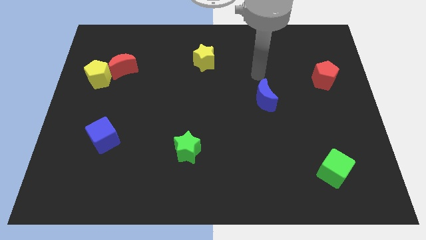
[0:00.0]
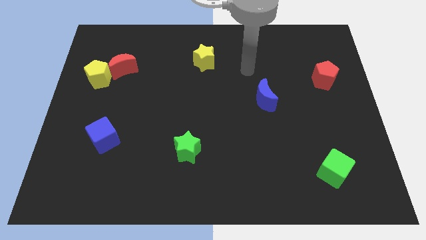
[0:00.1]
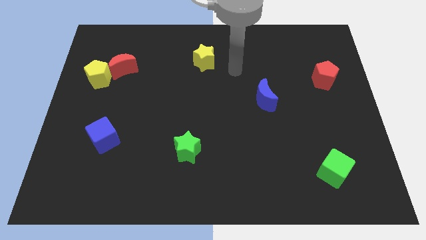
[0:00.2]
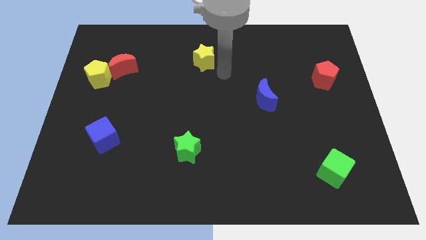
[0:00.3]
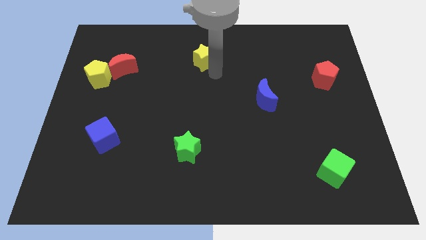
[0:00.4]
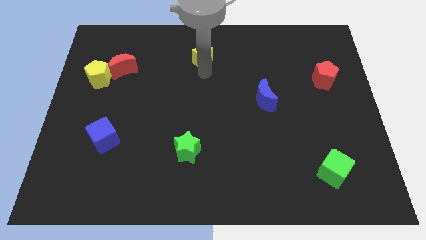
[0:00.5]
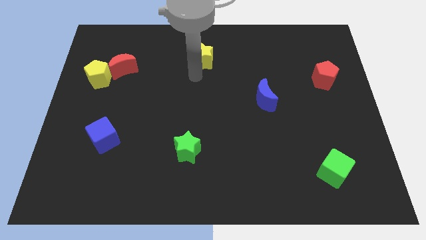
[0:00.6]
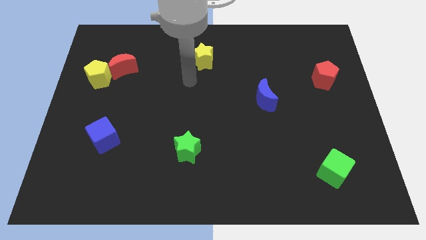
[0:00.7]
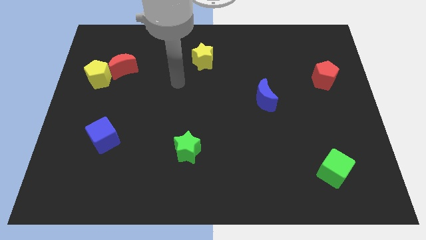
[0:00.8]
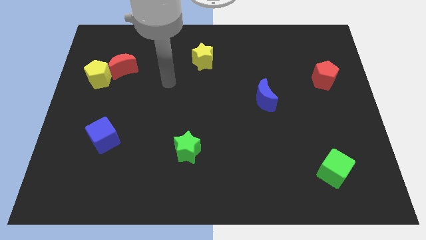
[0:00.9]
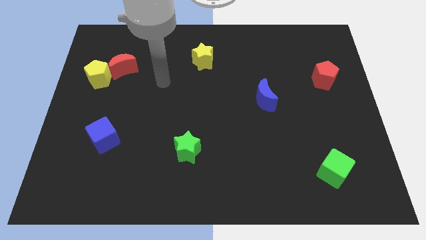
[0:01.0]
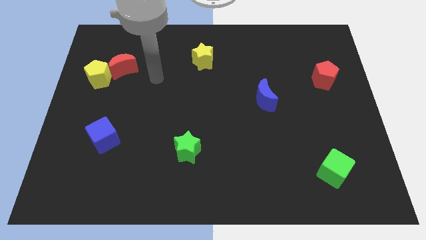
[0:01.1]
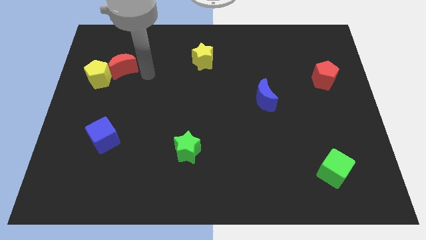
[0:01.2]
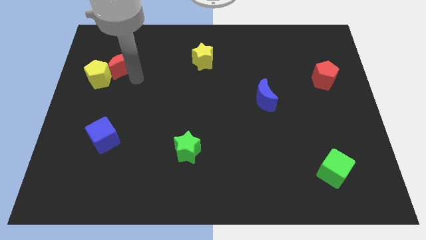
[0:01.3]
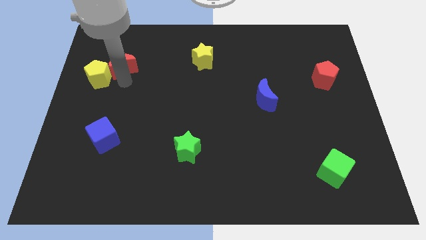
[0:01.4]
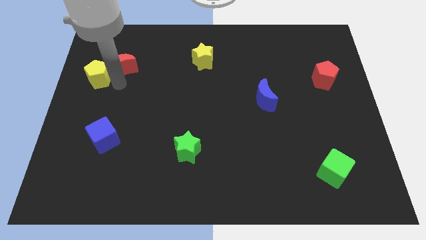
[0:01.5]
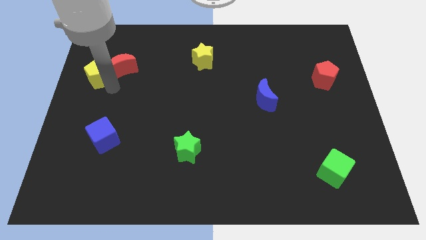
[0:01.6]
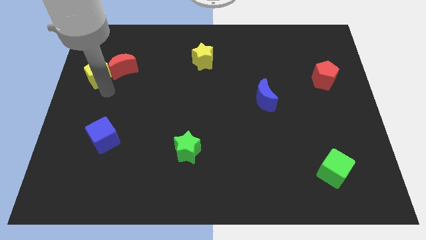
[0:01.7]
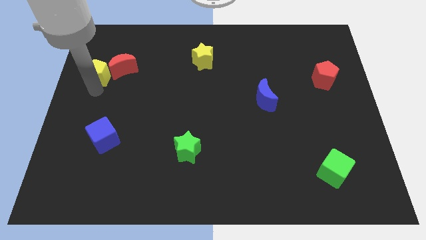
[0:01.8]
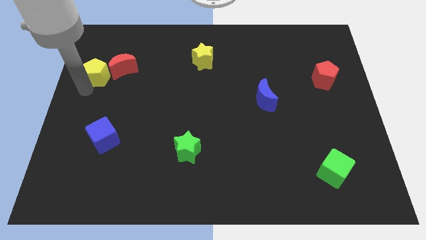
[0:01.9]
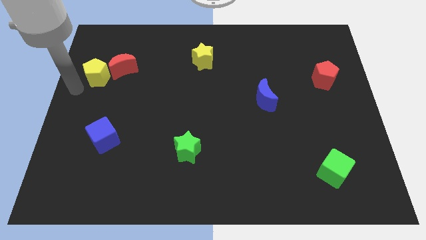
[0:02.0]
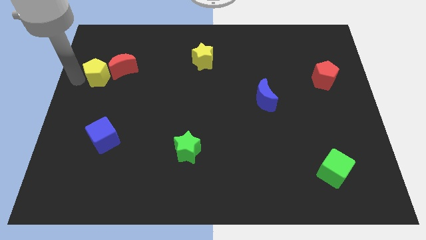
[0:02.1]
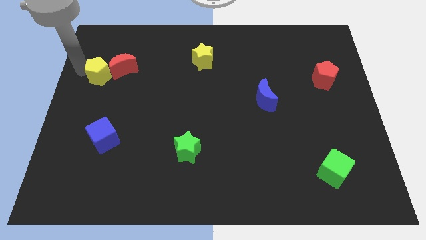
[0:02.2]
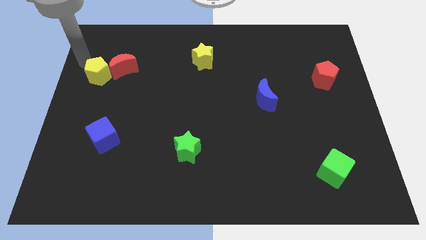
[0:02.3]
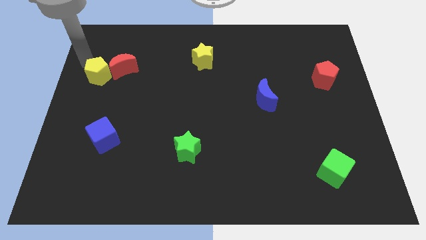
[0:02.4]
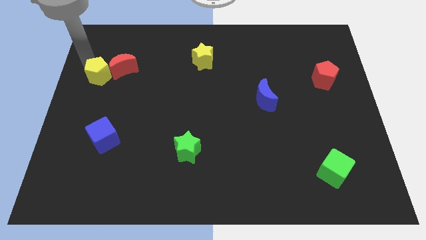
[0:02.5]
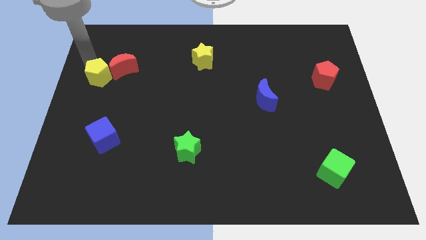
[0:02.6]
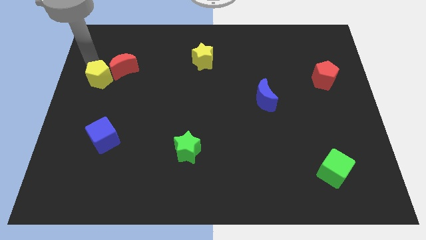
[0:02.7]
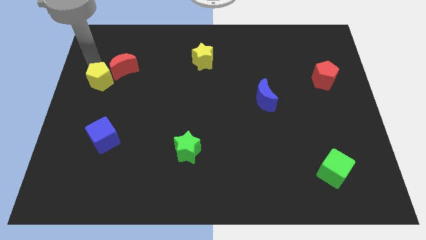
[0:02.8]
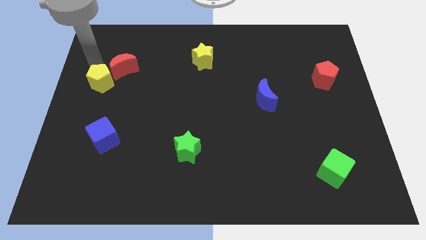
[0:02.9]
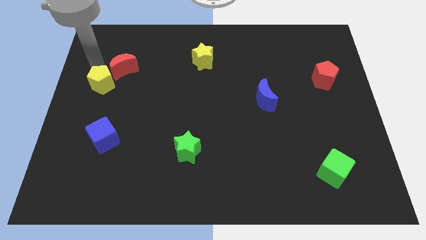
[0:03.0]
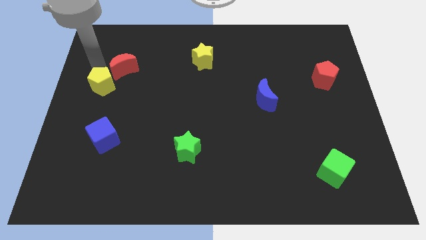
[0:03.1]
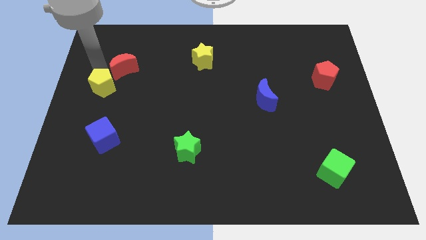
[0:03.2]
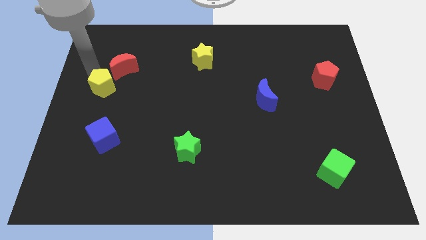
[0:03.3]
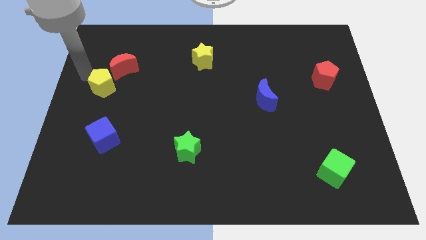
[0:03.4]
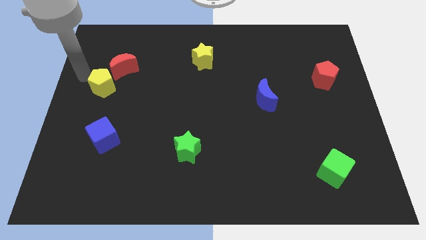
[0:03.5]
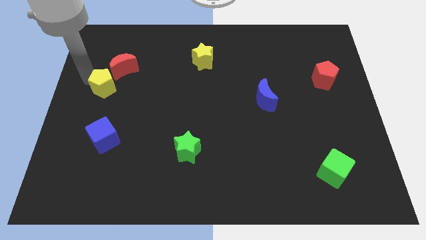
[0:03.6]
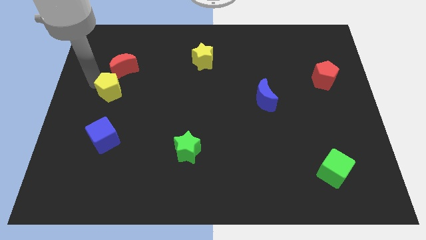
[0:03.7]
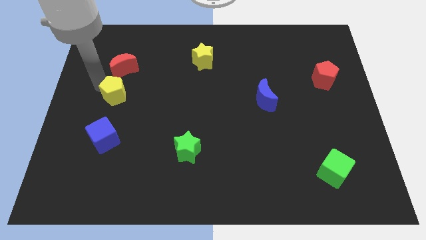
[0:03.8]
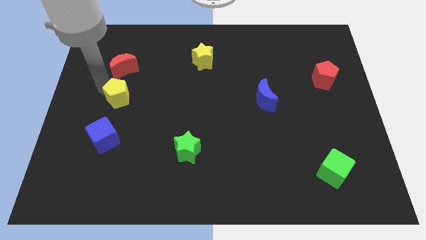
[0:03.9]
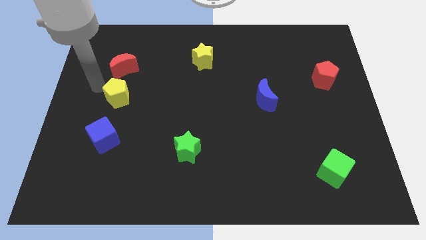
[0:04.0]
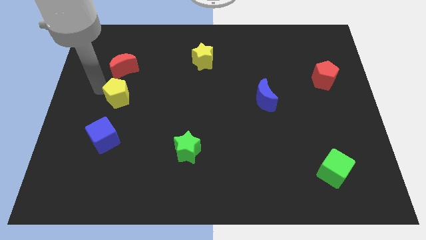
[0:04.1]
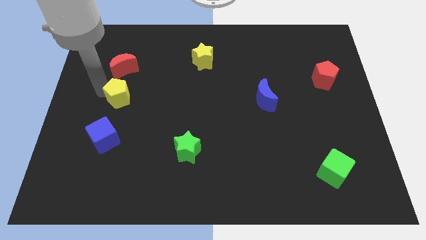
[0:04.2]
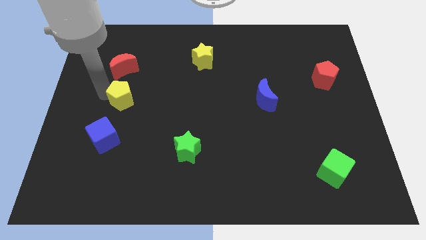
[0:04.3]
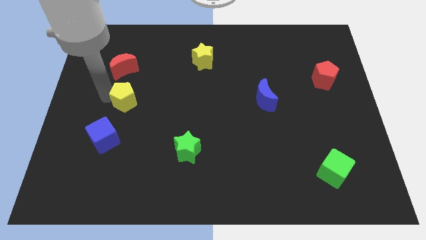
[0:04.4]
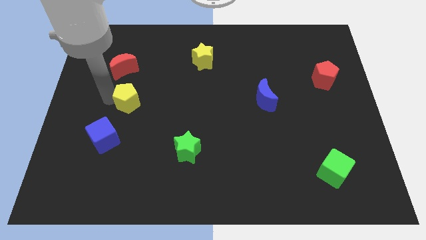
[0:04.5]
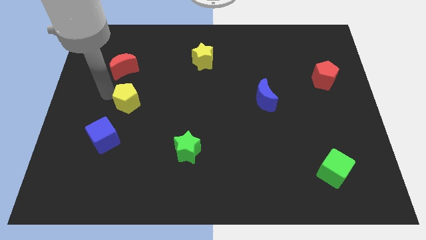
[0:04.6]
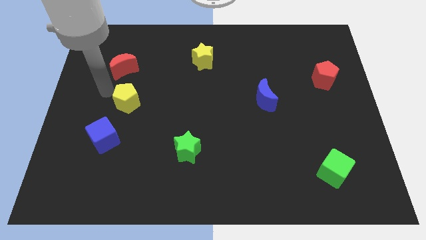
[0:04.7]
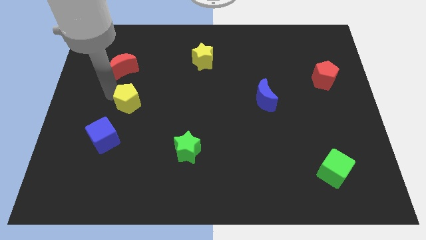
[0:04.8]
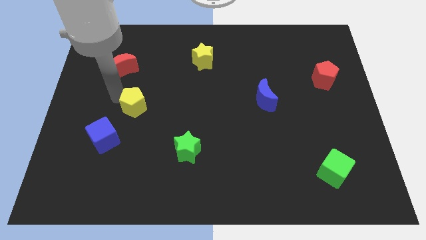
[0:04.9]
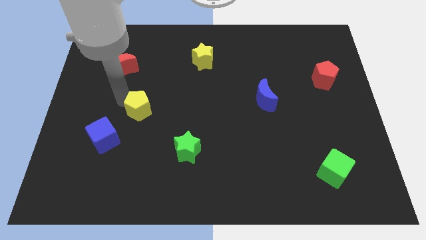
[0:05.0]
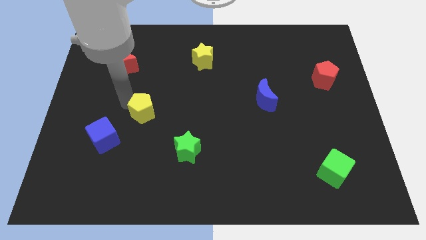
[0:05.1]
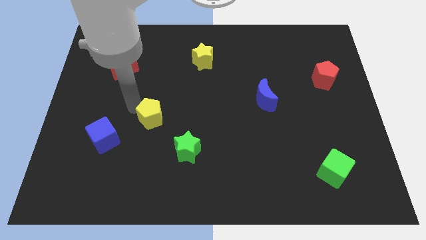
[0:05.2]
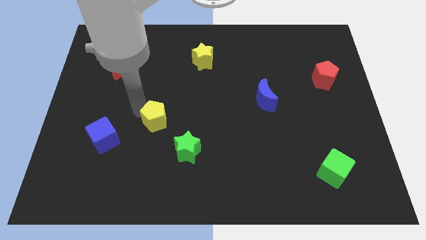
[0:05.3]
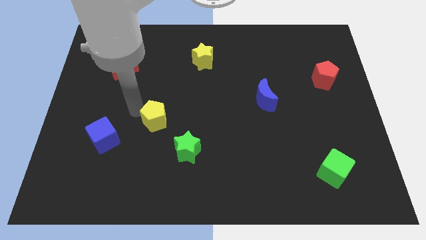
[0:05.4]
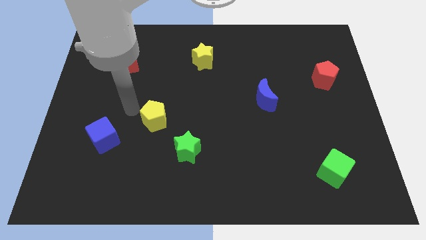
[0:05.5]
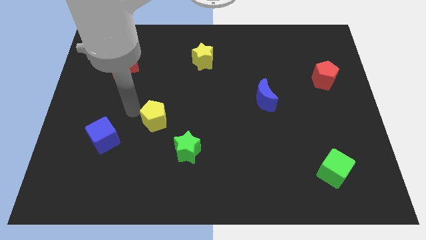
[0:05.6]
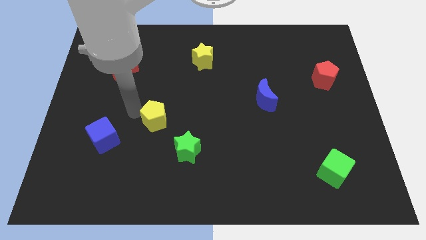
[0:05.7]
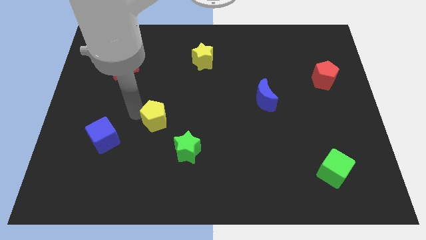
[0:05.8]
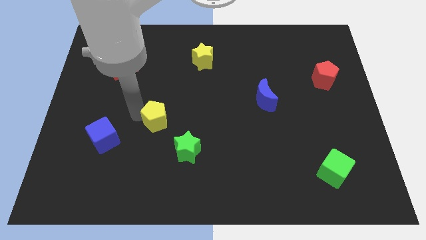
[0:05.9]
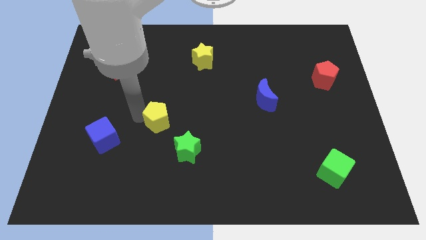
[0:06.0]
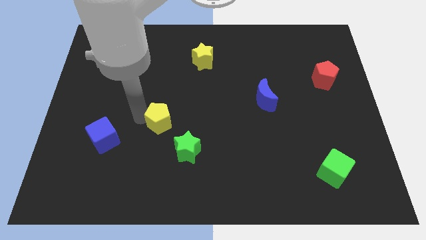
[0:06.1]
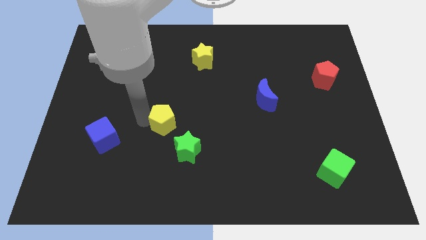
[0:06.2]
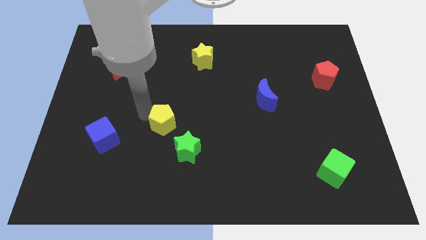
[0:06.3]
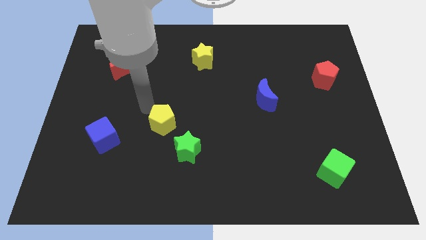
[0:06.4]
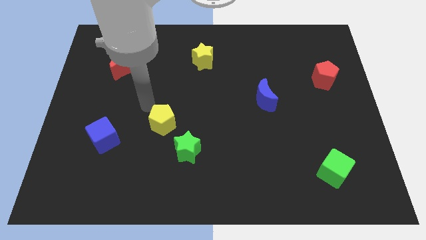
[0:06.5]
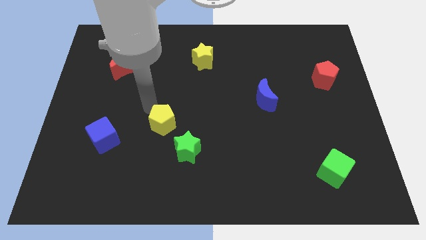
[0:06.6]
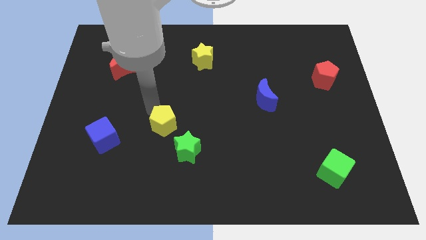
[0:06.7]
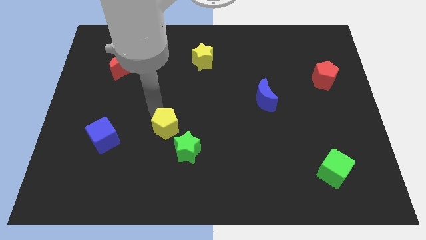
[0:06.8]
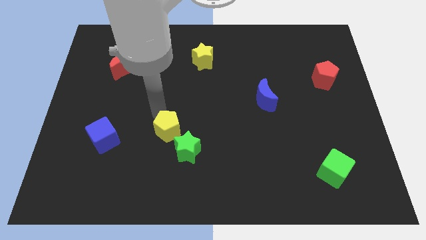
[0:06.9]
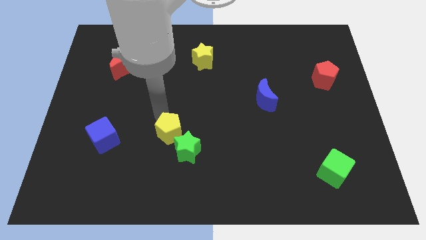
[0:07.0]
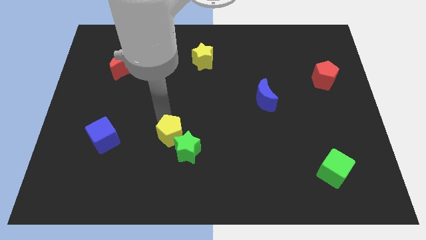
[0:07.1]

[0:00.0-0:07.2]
put the yellow pentagon next to the green star
